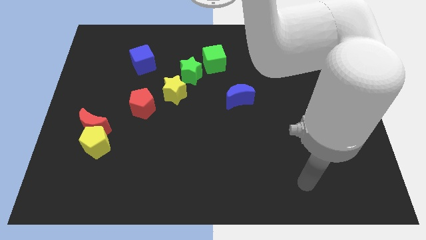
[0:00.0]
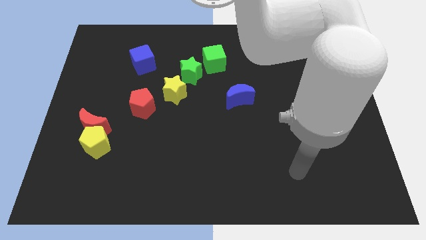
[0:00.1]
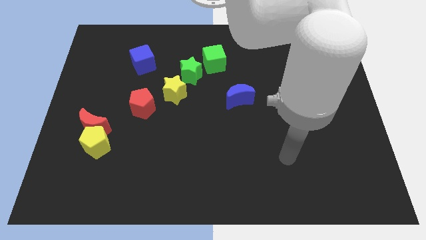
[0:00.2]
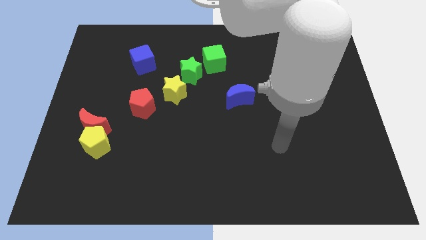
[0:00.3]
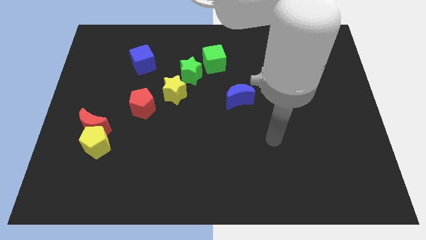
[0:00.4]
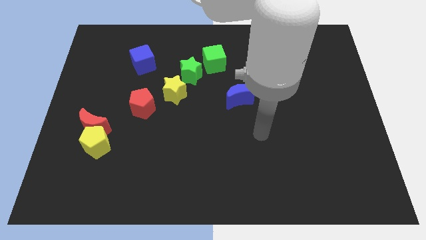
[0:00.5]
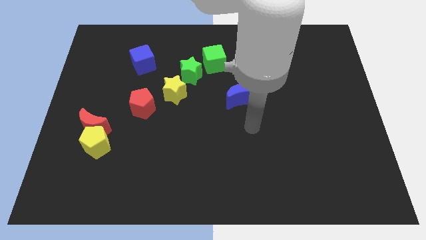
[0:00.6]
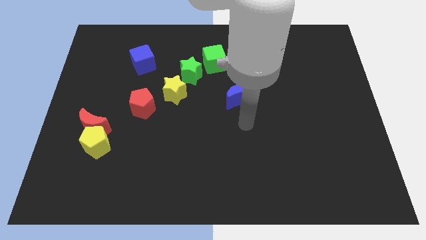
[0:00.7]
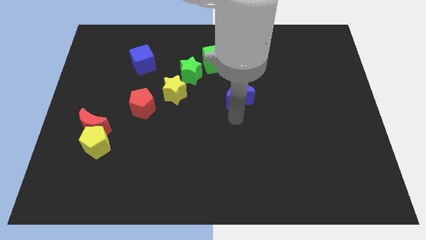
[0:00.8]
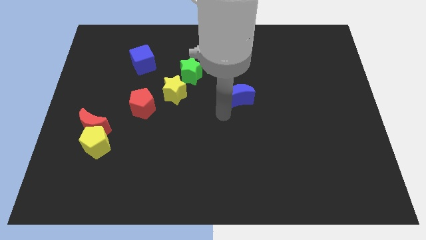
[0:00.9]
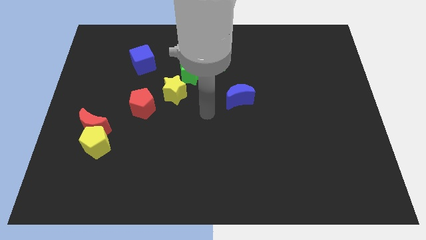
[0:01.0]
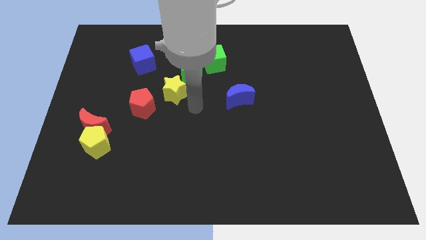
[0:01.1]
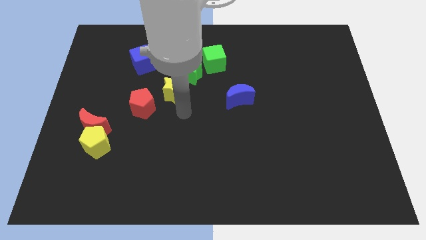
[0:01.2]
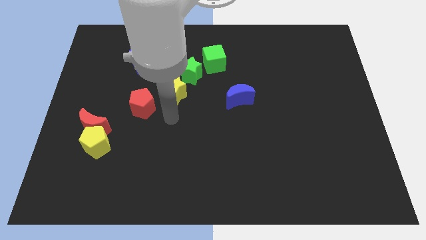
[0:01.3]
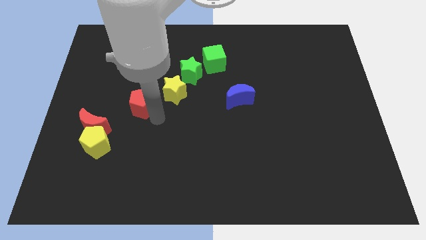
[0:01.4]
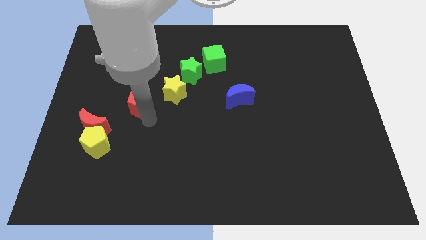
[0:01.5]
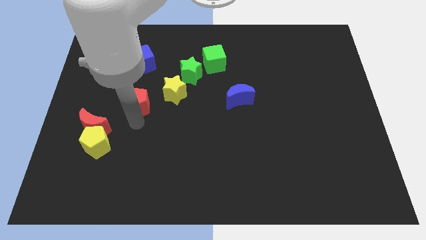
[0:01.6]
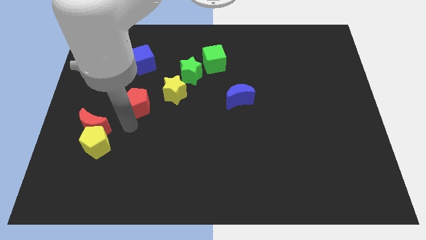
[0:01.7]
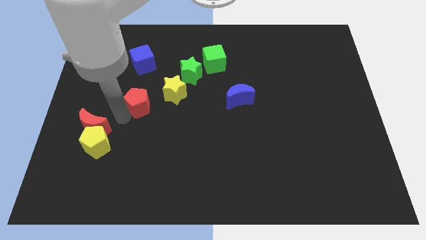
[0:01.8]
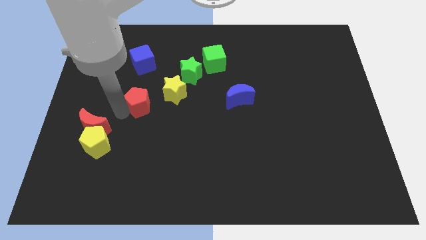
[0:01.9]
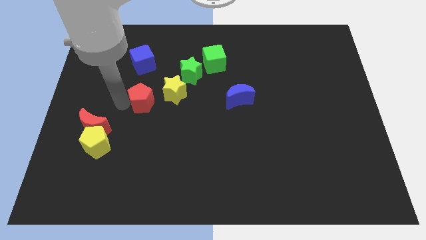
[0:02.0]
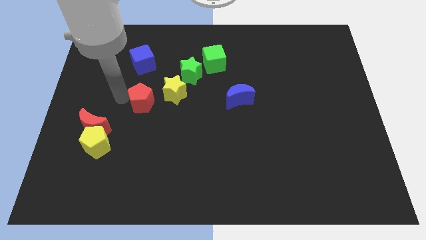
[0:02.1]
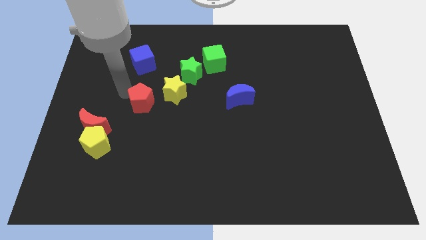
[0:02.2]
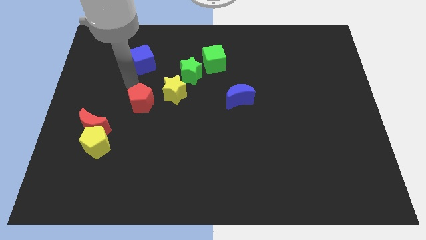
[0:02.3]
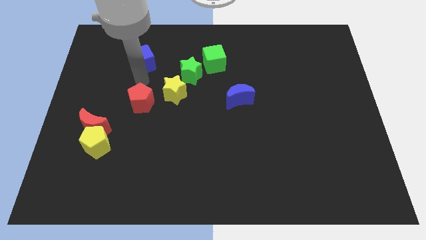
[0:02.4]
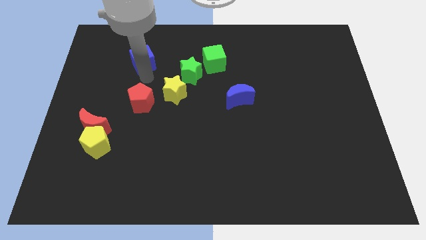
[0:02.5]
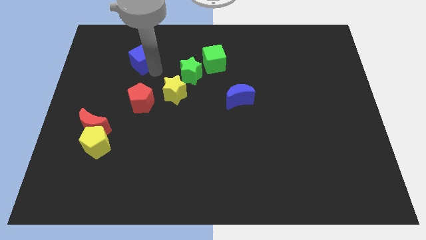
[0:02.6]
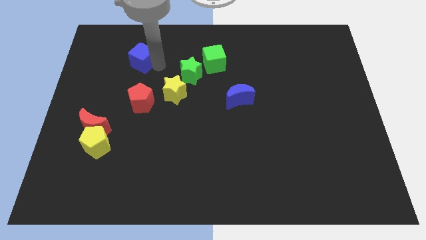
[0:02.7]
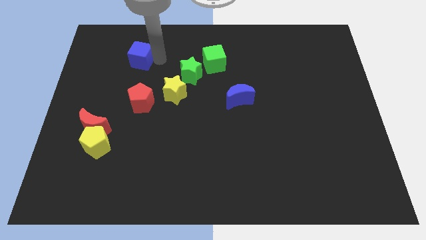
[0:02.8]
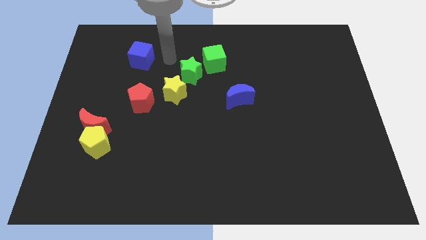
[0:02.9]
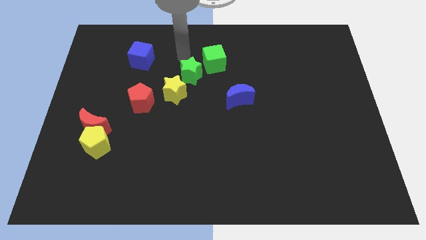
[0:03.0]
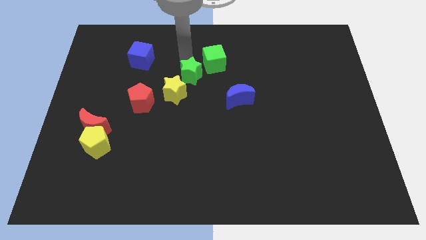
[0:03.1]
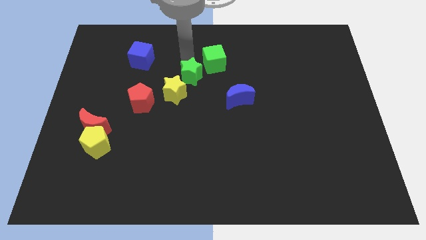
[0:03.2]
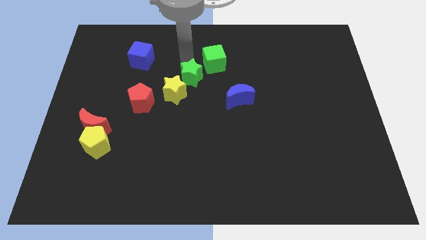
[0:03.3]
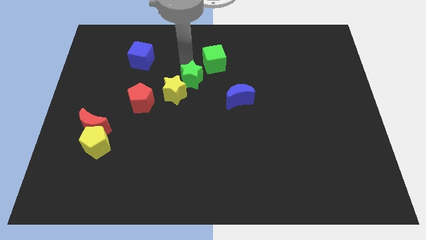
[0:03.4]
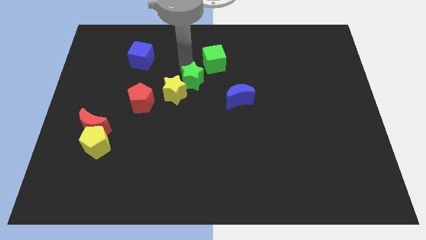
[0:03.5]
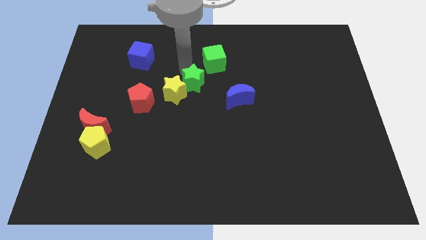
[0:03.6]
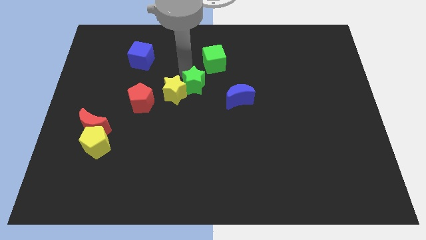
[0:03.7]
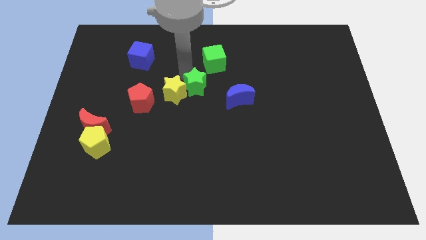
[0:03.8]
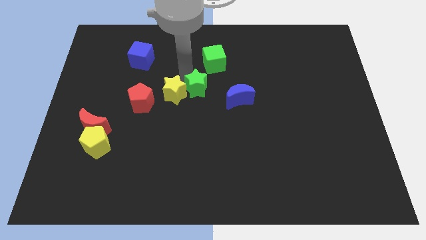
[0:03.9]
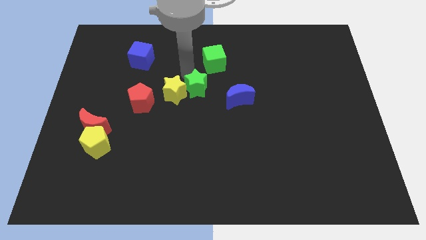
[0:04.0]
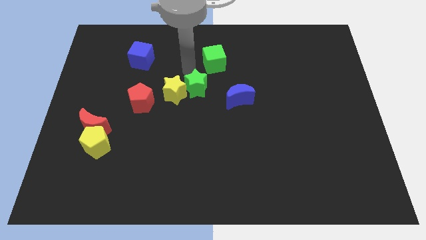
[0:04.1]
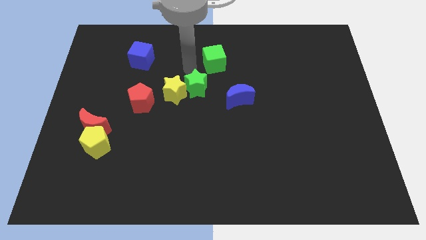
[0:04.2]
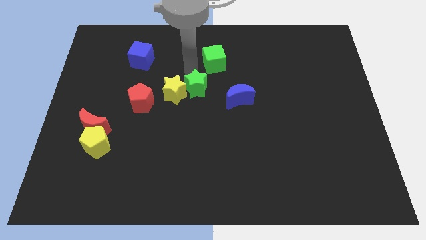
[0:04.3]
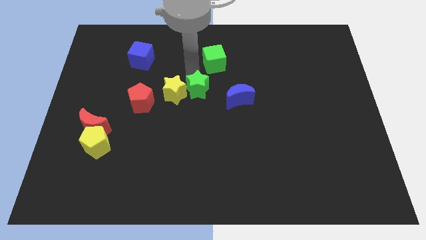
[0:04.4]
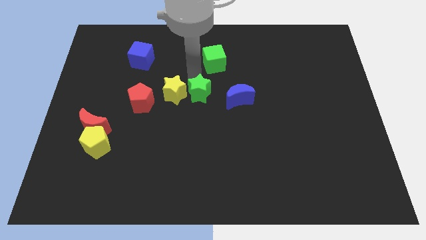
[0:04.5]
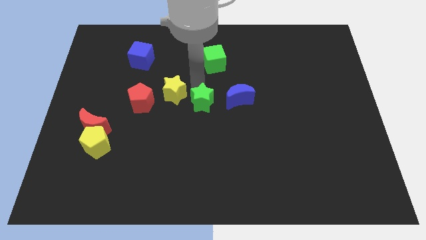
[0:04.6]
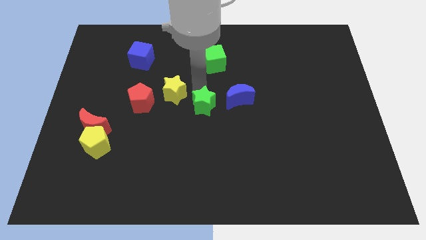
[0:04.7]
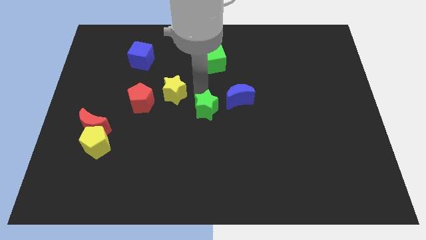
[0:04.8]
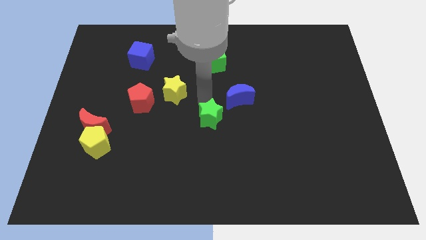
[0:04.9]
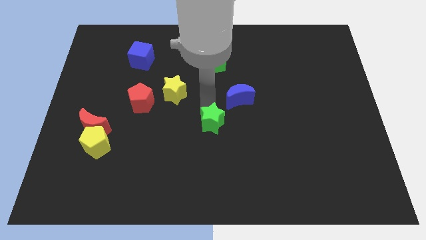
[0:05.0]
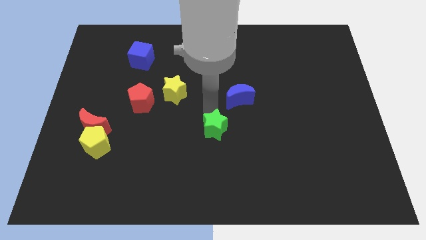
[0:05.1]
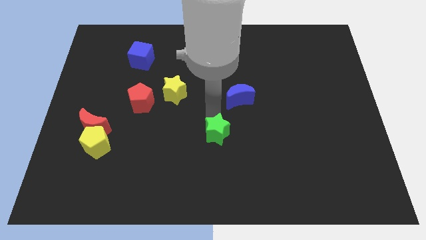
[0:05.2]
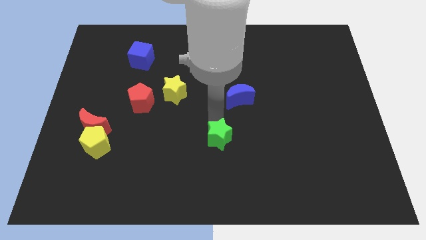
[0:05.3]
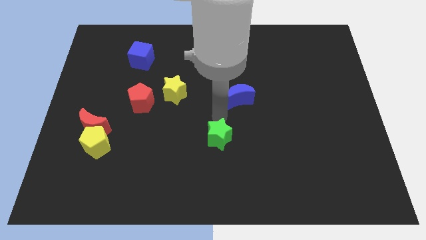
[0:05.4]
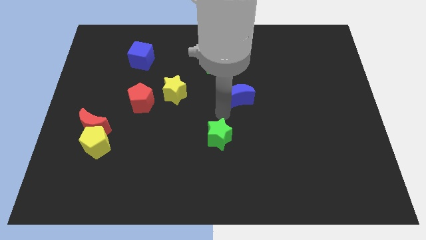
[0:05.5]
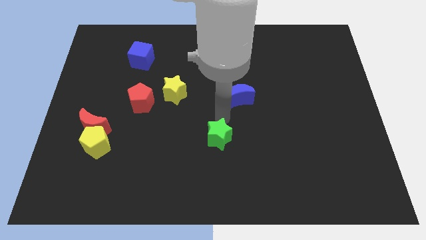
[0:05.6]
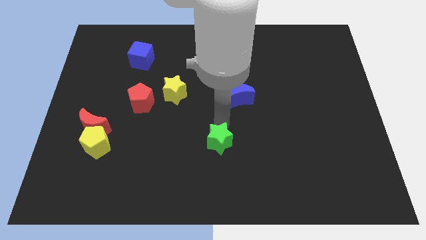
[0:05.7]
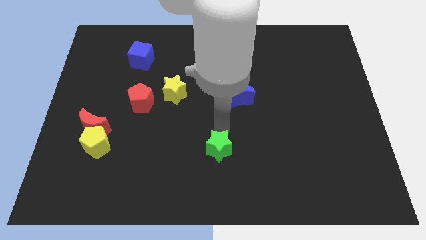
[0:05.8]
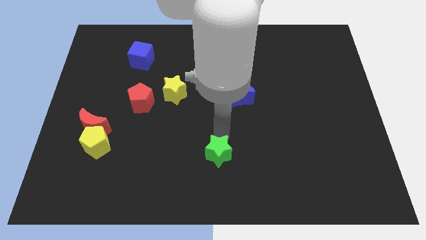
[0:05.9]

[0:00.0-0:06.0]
put the green star to the bottom
